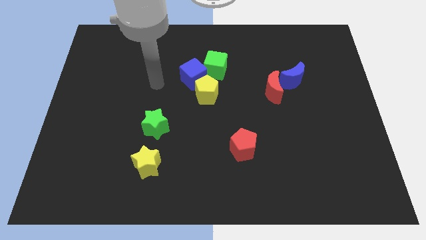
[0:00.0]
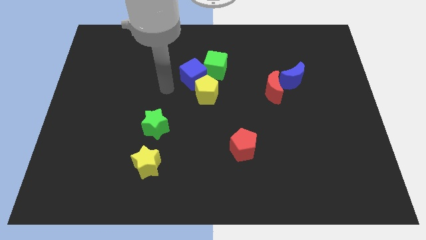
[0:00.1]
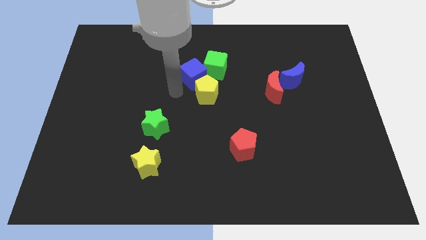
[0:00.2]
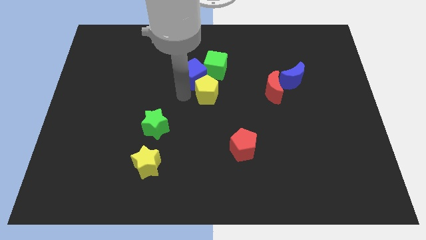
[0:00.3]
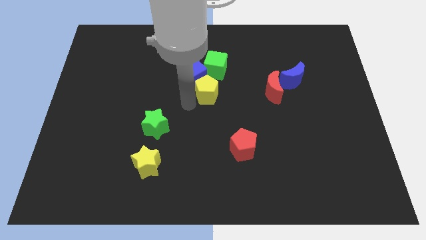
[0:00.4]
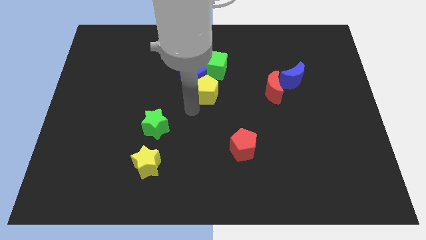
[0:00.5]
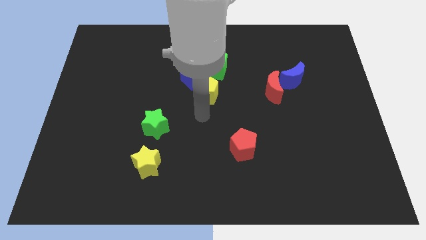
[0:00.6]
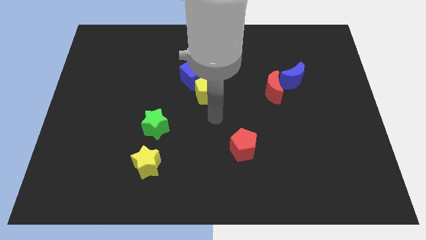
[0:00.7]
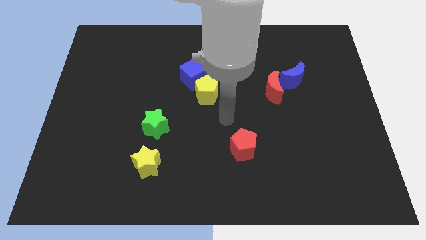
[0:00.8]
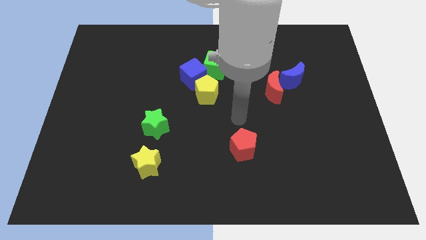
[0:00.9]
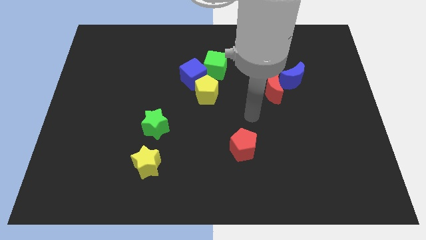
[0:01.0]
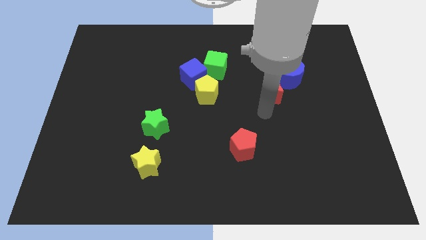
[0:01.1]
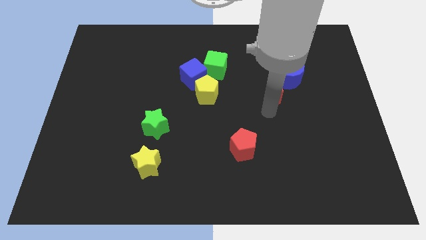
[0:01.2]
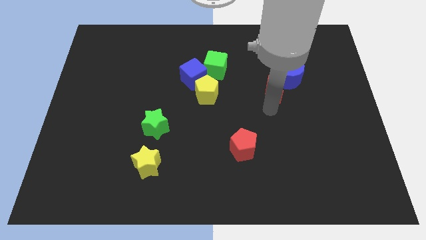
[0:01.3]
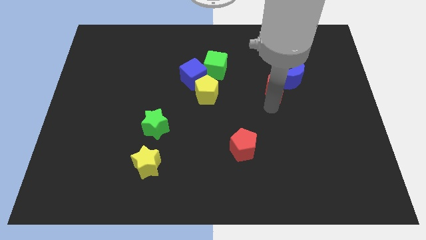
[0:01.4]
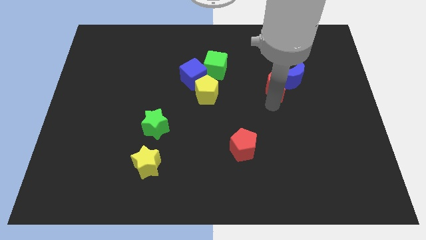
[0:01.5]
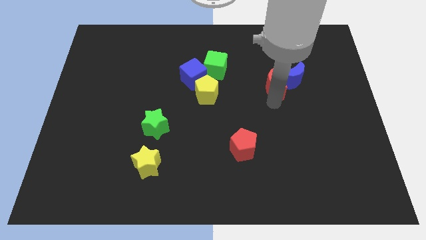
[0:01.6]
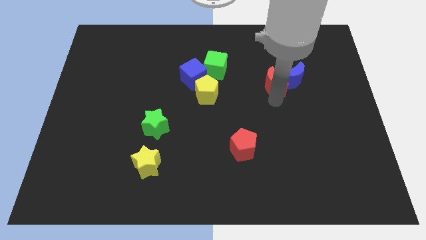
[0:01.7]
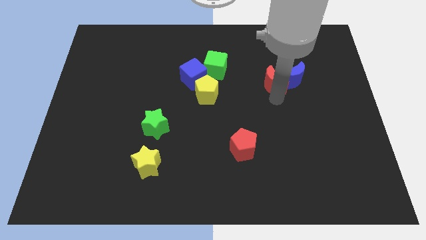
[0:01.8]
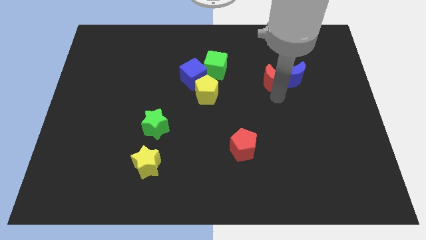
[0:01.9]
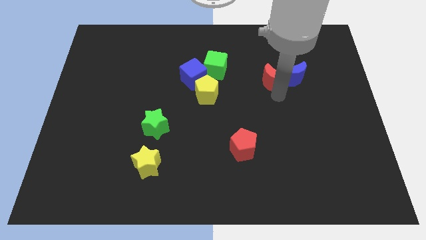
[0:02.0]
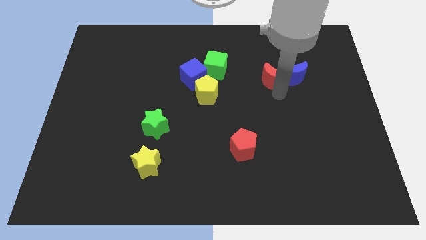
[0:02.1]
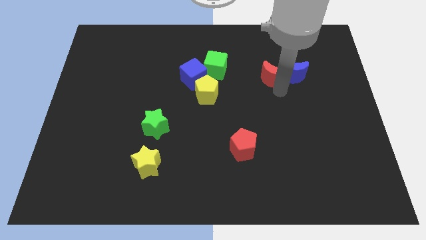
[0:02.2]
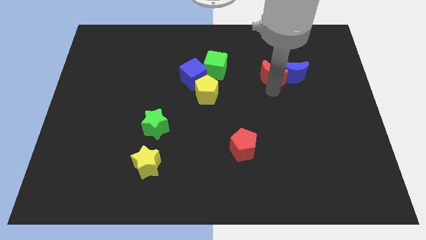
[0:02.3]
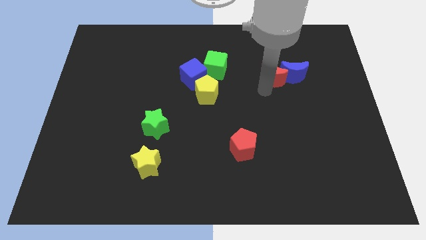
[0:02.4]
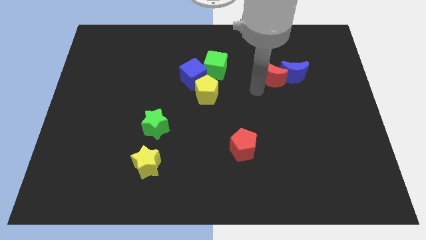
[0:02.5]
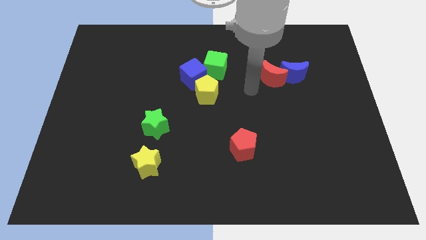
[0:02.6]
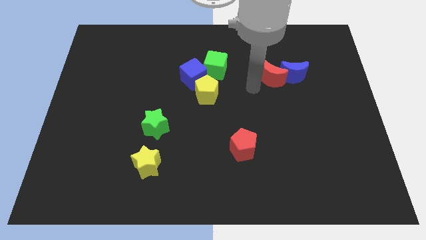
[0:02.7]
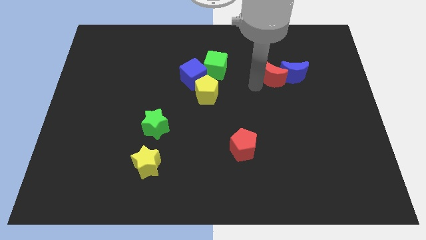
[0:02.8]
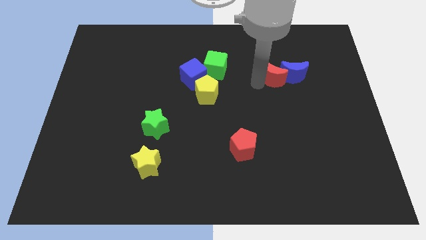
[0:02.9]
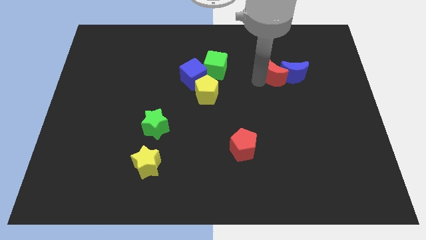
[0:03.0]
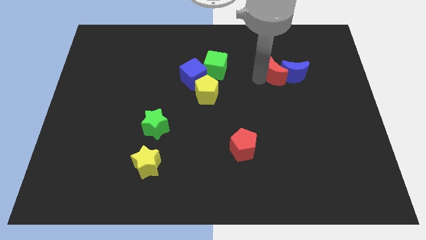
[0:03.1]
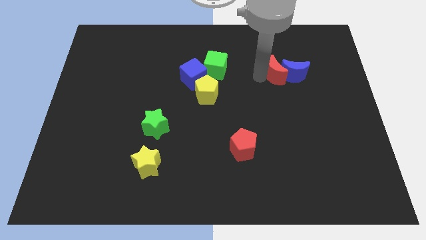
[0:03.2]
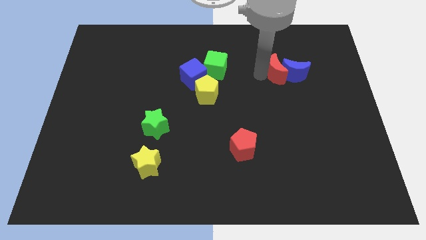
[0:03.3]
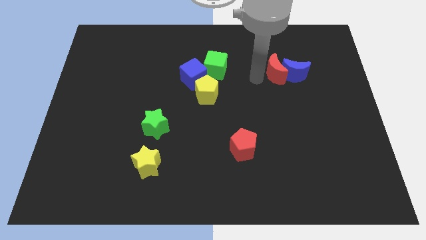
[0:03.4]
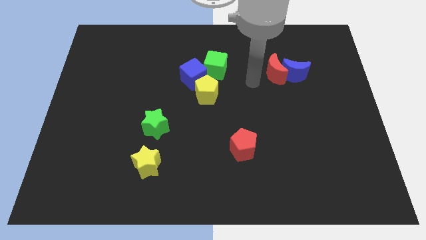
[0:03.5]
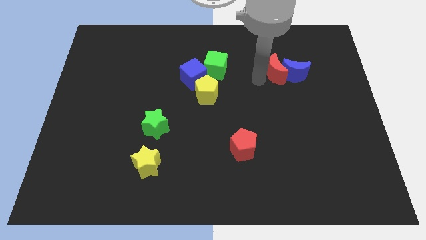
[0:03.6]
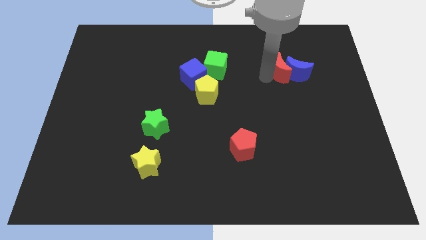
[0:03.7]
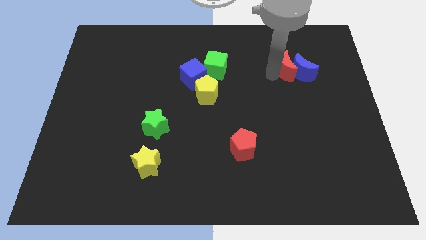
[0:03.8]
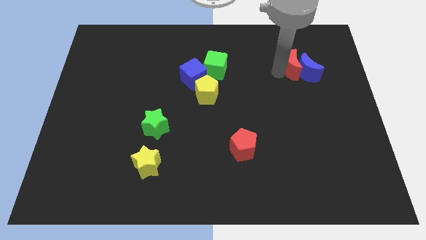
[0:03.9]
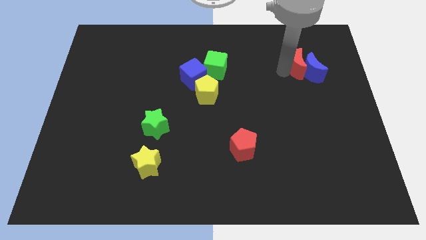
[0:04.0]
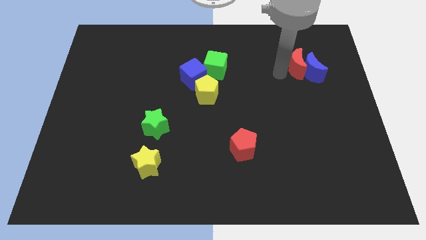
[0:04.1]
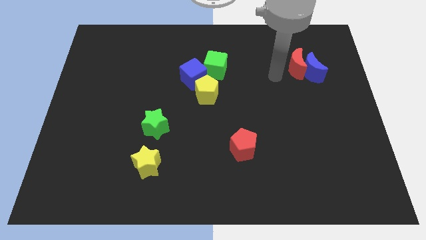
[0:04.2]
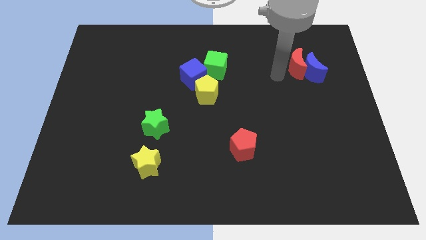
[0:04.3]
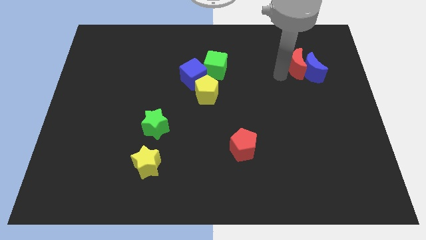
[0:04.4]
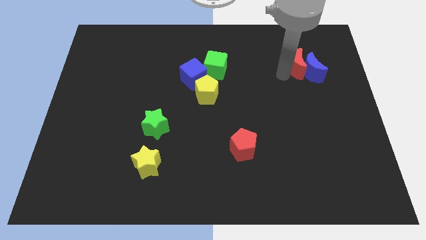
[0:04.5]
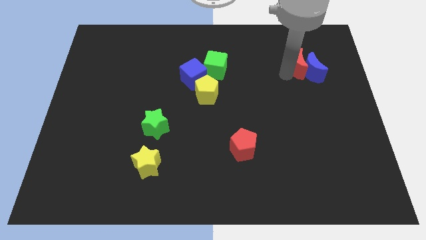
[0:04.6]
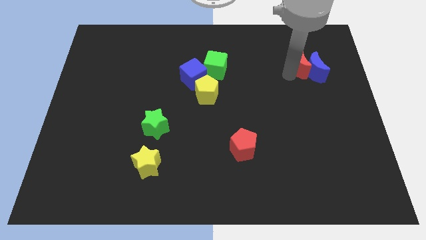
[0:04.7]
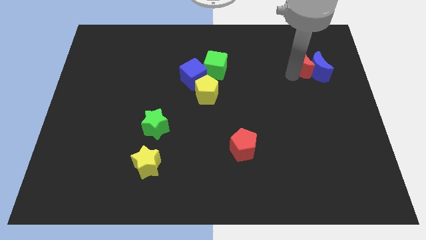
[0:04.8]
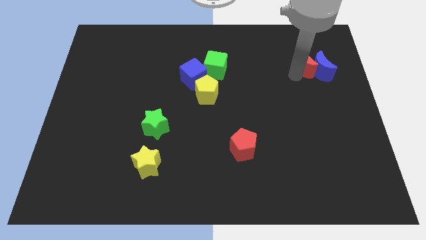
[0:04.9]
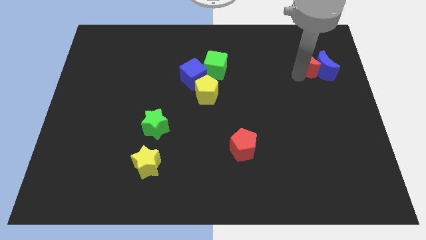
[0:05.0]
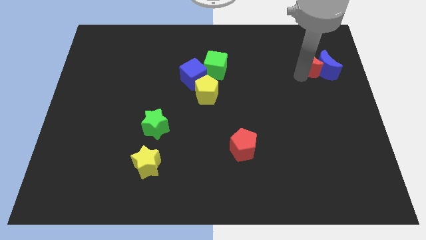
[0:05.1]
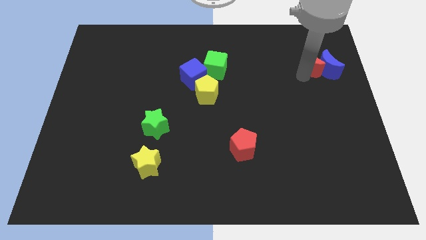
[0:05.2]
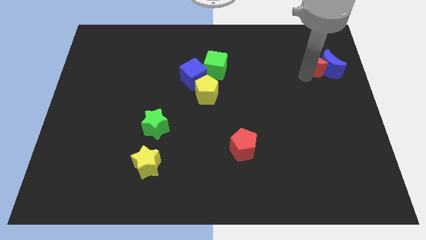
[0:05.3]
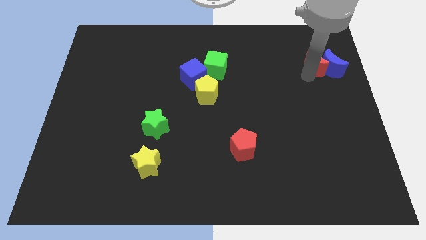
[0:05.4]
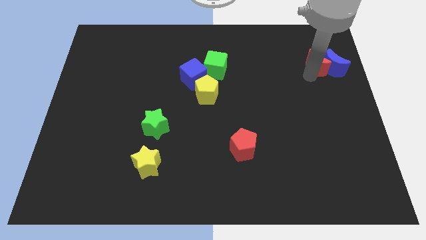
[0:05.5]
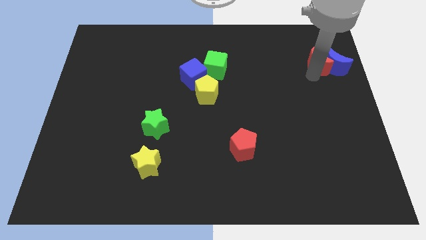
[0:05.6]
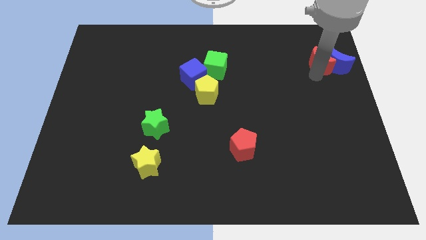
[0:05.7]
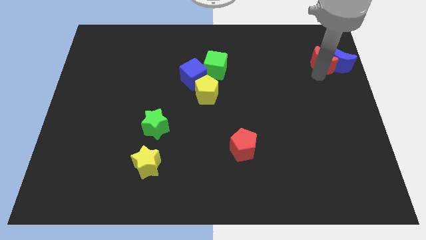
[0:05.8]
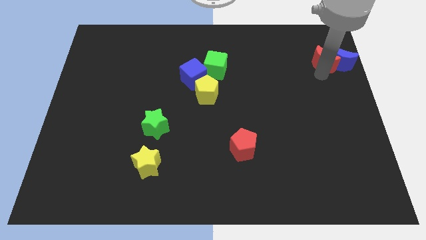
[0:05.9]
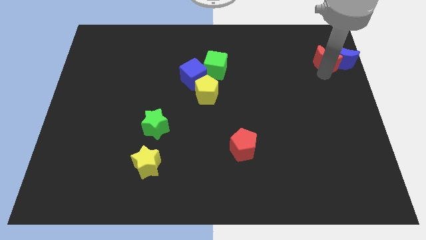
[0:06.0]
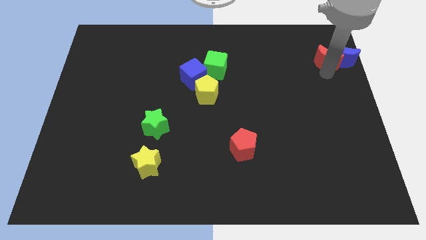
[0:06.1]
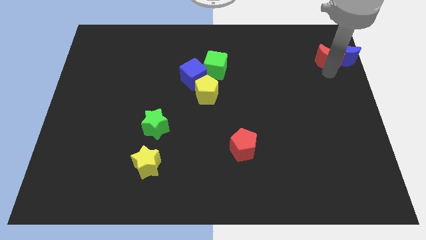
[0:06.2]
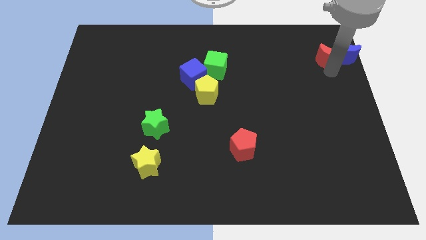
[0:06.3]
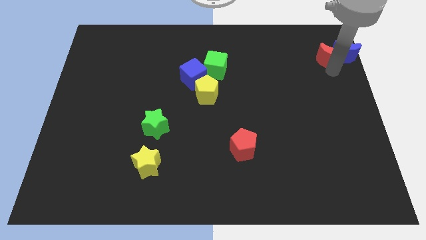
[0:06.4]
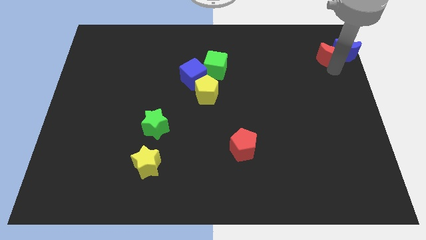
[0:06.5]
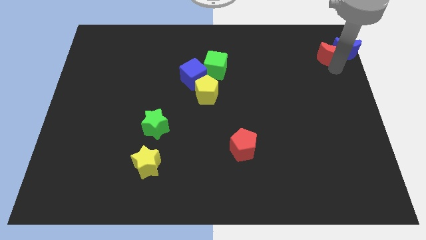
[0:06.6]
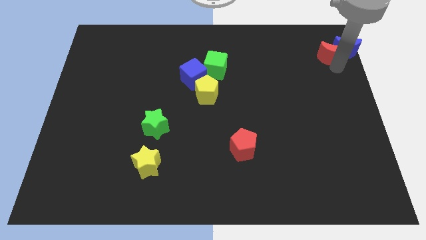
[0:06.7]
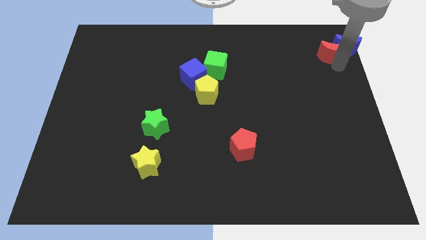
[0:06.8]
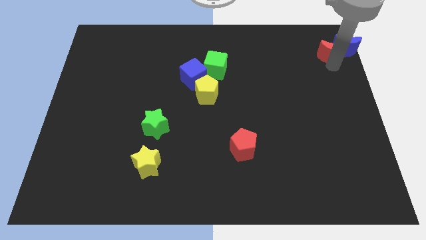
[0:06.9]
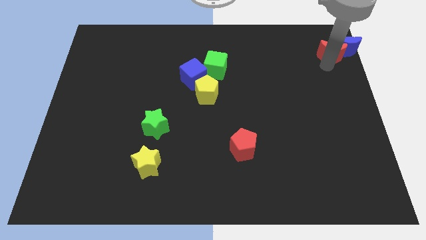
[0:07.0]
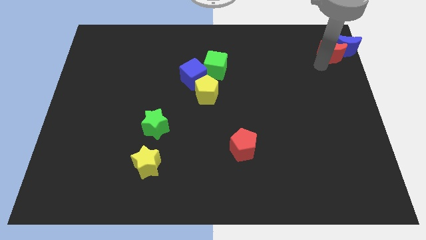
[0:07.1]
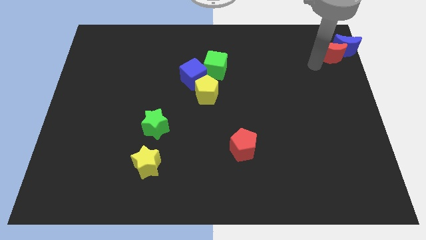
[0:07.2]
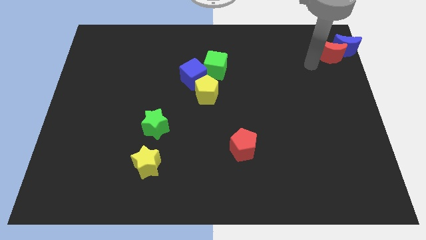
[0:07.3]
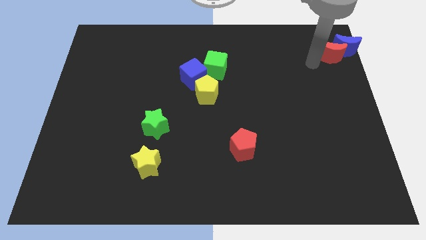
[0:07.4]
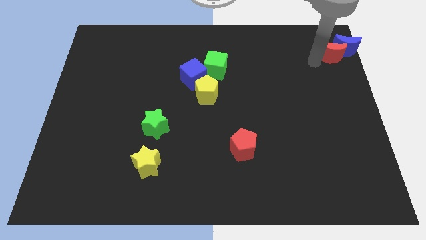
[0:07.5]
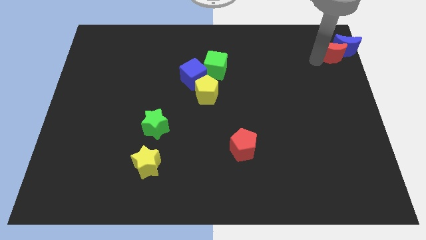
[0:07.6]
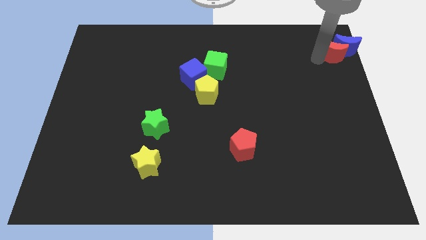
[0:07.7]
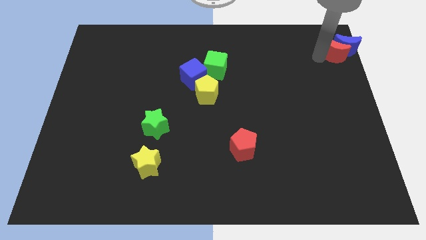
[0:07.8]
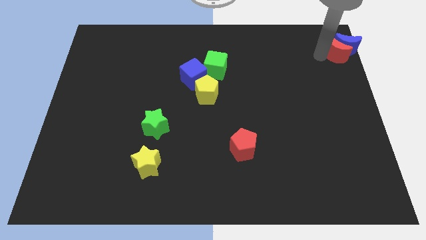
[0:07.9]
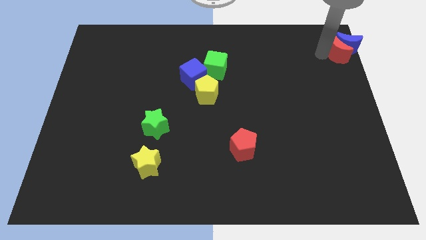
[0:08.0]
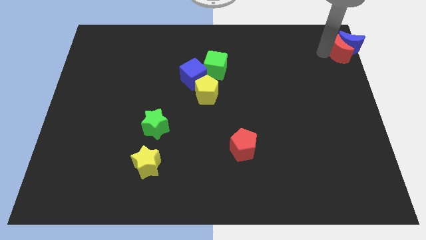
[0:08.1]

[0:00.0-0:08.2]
slide the red moon to the top right of the board

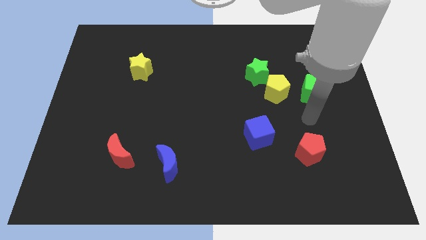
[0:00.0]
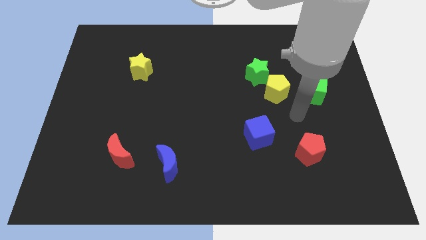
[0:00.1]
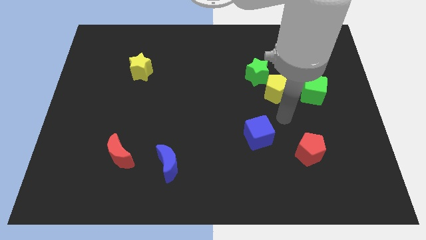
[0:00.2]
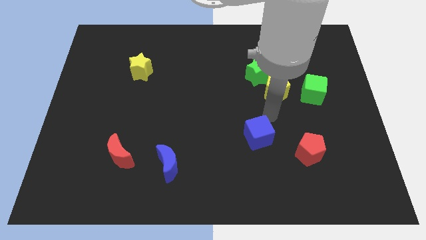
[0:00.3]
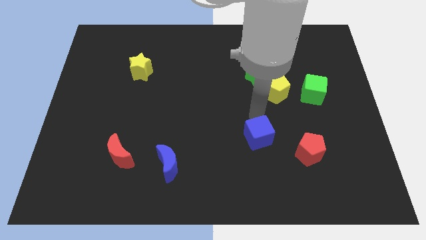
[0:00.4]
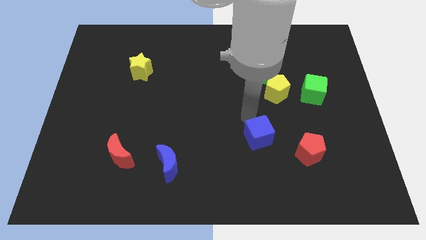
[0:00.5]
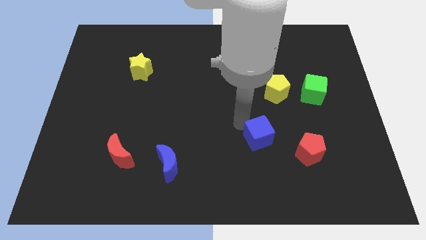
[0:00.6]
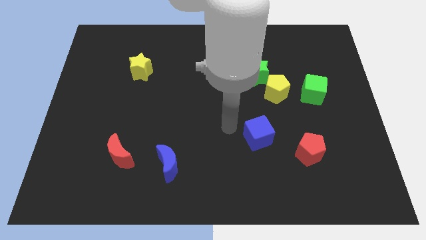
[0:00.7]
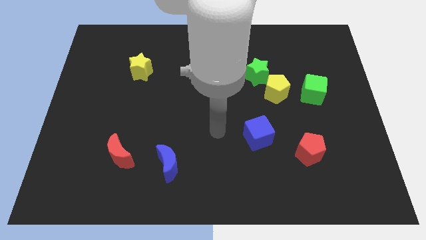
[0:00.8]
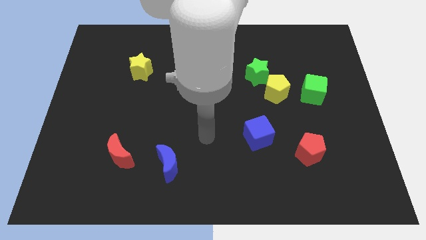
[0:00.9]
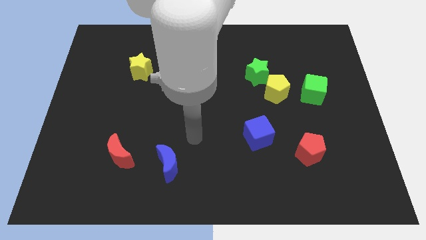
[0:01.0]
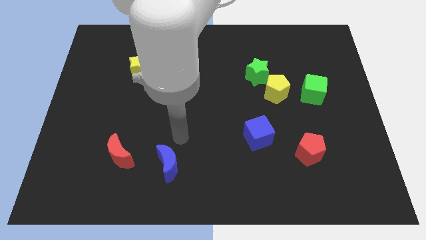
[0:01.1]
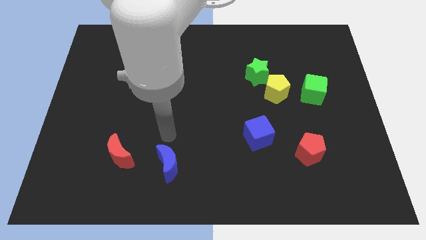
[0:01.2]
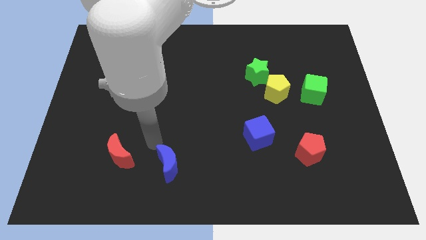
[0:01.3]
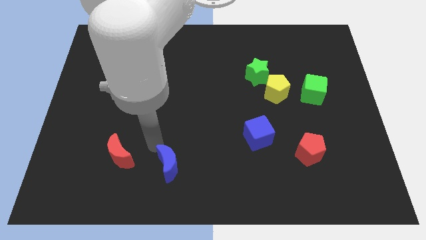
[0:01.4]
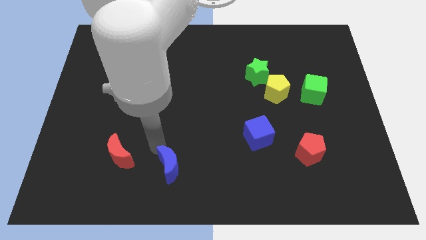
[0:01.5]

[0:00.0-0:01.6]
put the blue moon to the bottom
